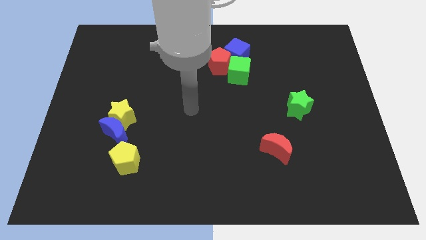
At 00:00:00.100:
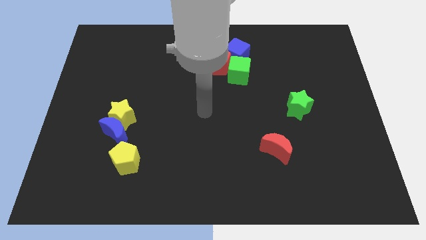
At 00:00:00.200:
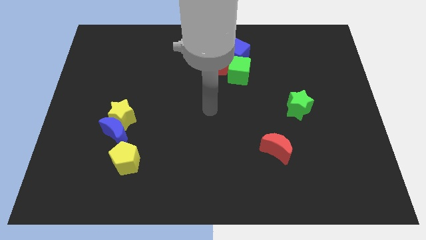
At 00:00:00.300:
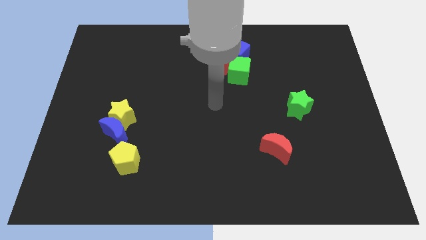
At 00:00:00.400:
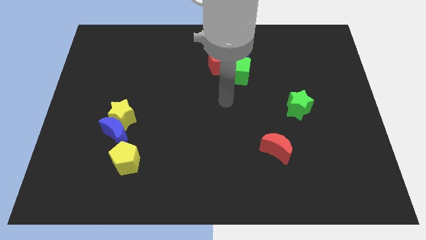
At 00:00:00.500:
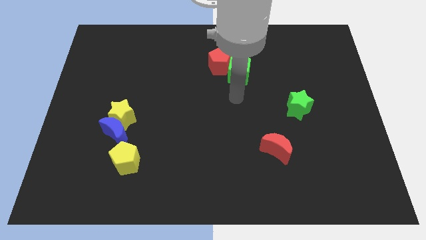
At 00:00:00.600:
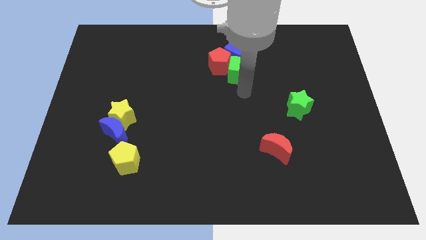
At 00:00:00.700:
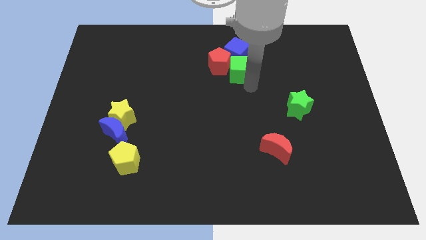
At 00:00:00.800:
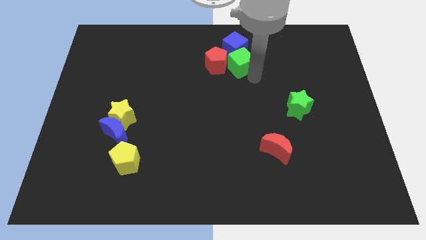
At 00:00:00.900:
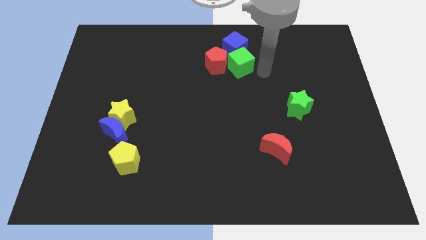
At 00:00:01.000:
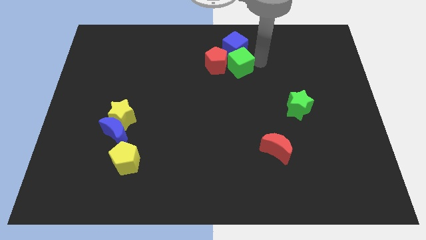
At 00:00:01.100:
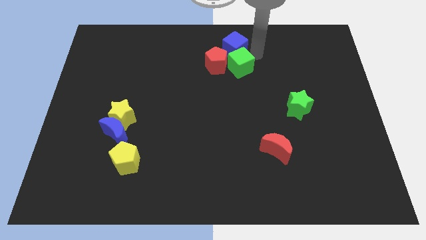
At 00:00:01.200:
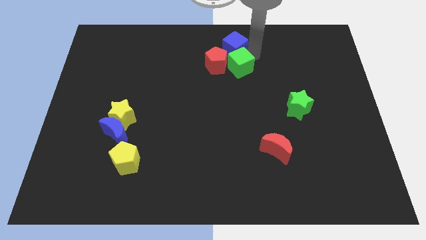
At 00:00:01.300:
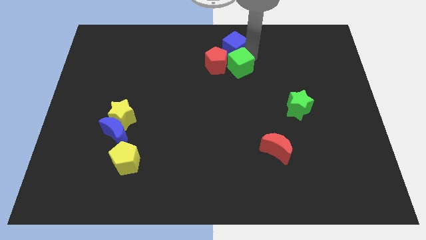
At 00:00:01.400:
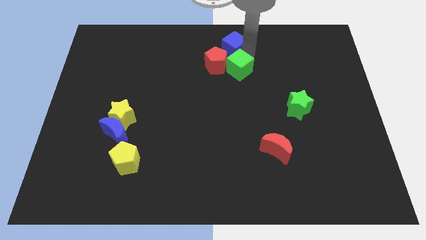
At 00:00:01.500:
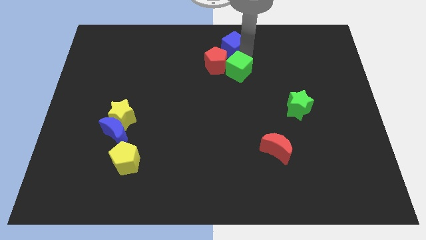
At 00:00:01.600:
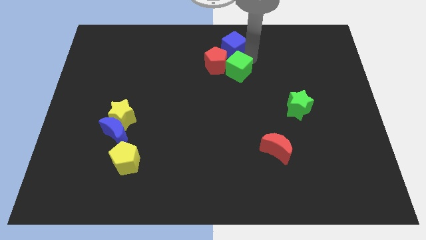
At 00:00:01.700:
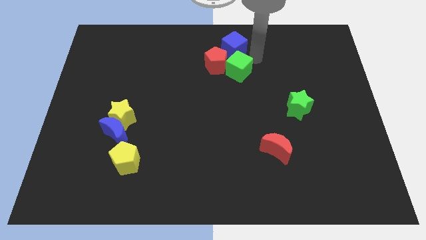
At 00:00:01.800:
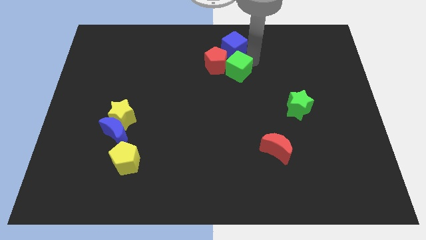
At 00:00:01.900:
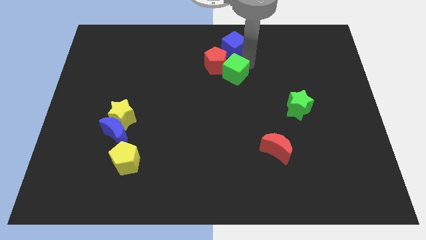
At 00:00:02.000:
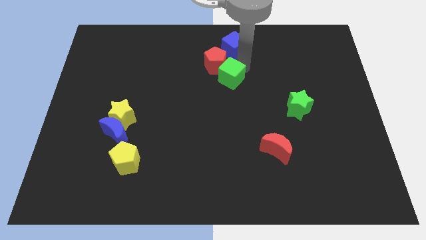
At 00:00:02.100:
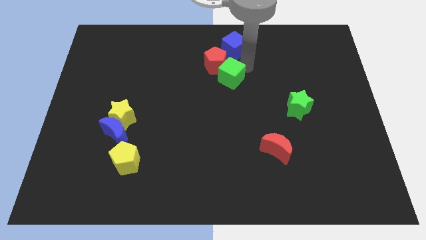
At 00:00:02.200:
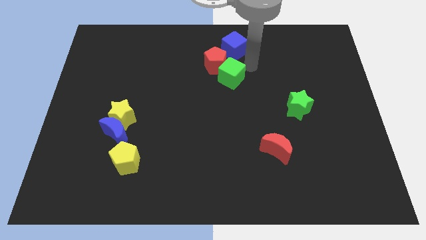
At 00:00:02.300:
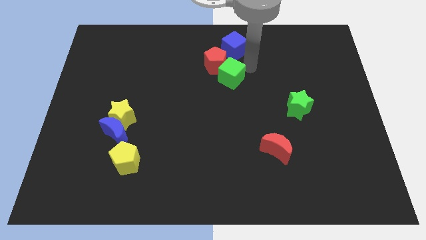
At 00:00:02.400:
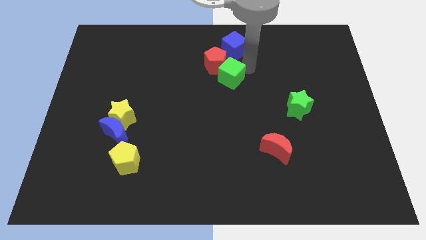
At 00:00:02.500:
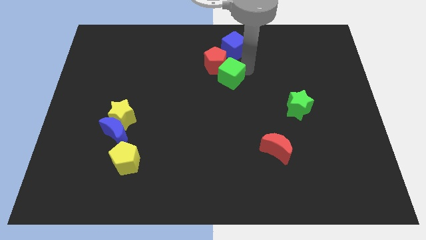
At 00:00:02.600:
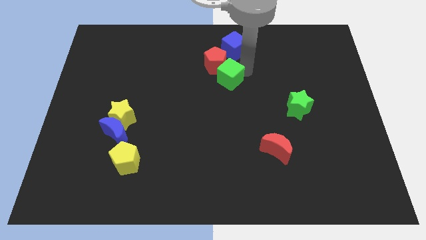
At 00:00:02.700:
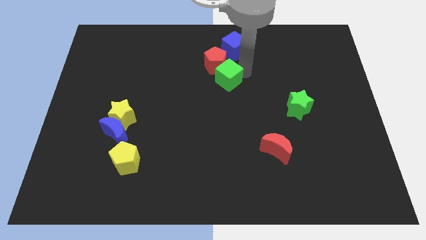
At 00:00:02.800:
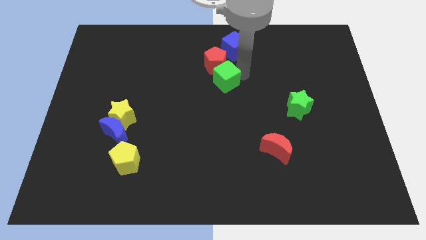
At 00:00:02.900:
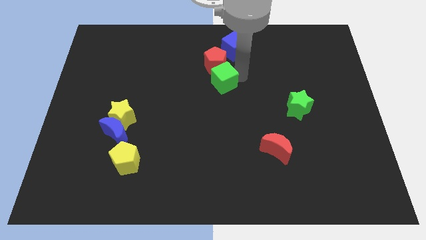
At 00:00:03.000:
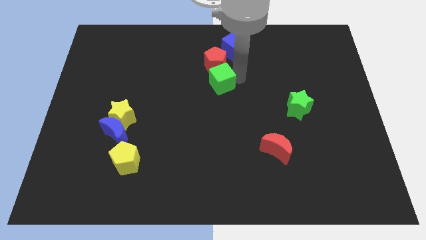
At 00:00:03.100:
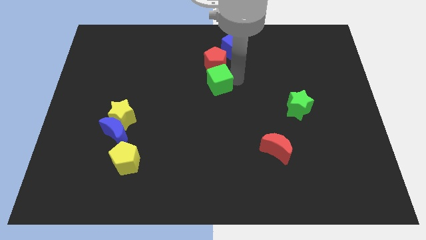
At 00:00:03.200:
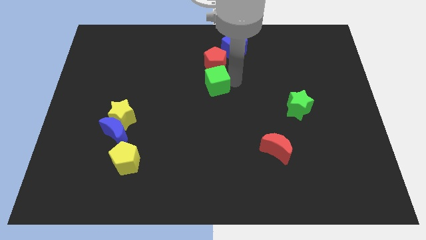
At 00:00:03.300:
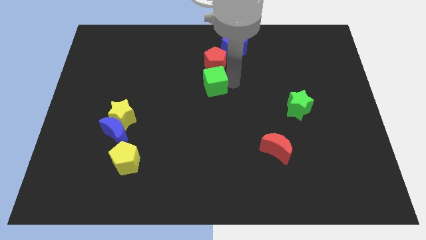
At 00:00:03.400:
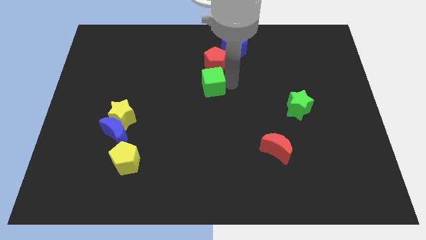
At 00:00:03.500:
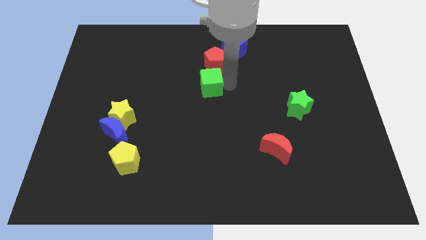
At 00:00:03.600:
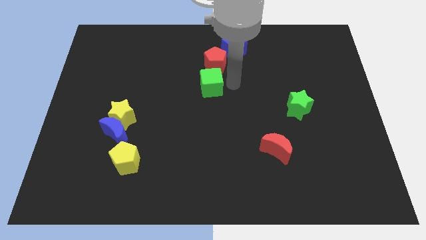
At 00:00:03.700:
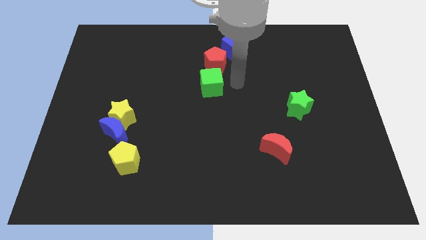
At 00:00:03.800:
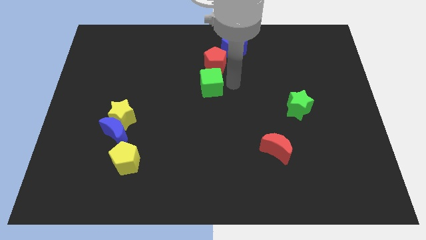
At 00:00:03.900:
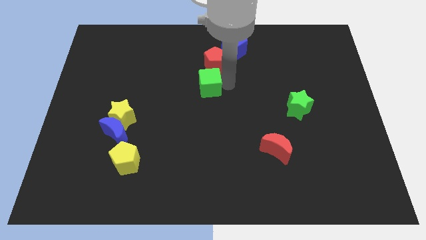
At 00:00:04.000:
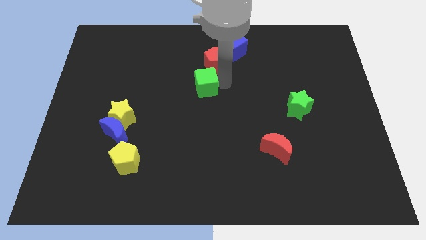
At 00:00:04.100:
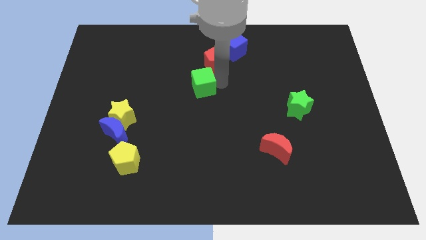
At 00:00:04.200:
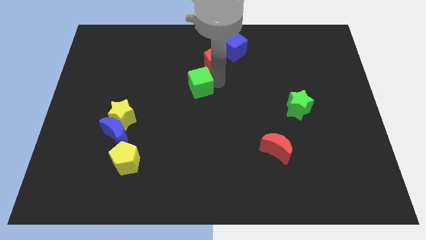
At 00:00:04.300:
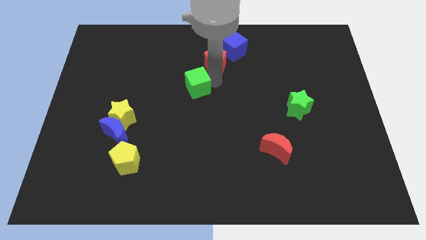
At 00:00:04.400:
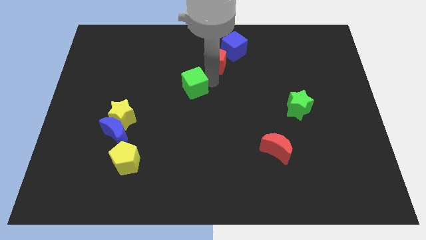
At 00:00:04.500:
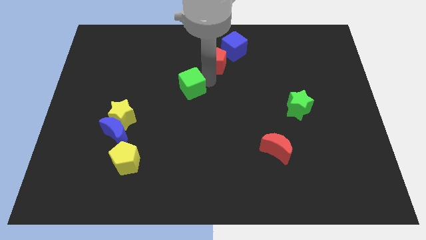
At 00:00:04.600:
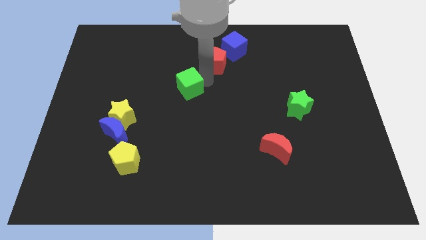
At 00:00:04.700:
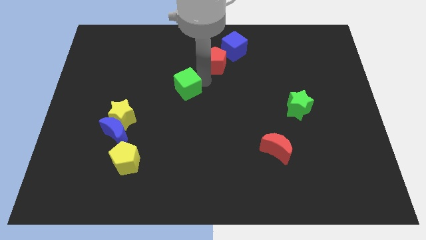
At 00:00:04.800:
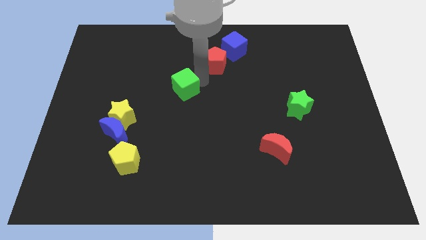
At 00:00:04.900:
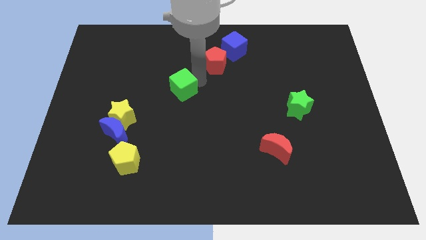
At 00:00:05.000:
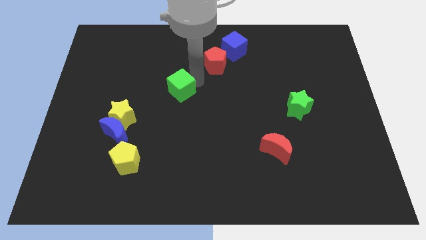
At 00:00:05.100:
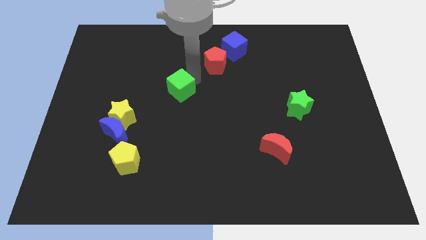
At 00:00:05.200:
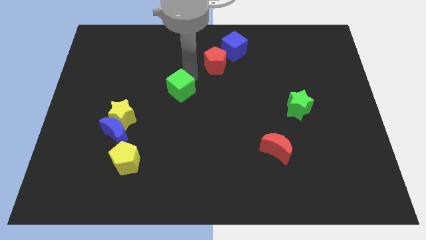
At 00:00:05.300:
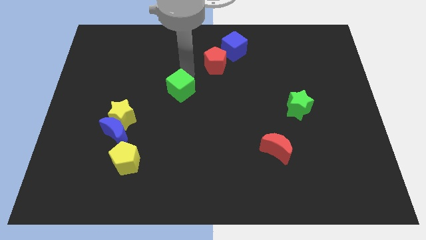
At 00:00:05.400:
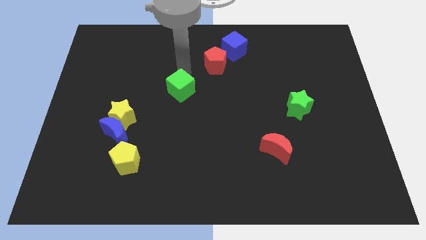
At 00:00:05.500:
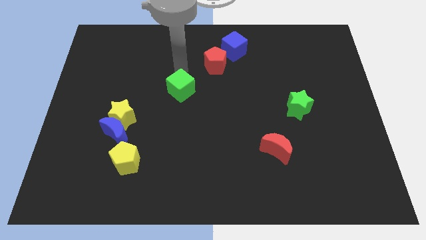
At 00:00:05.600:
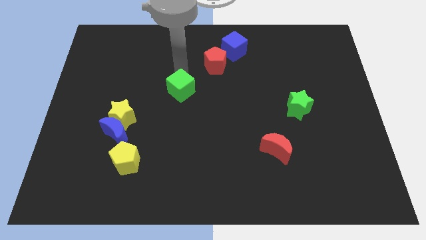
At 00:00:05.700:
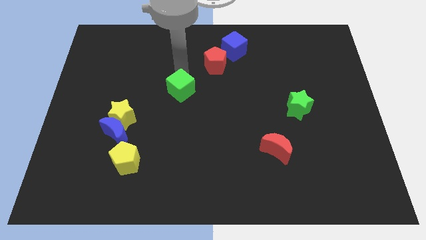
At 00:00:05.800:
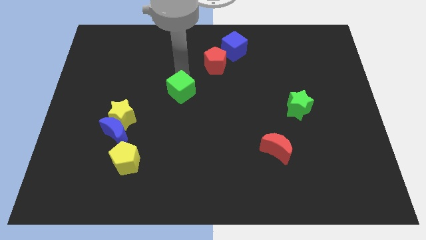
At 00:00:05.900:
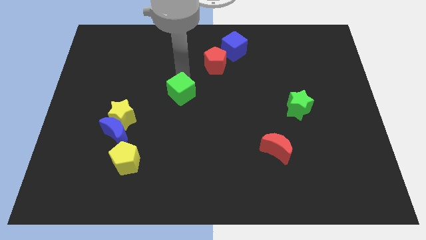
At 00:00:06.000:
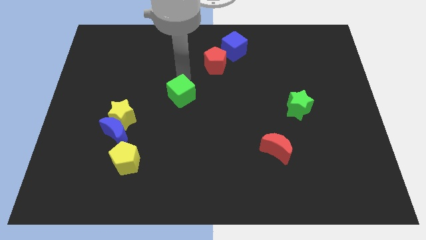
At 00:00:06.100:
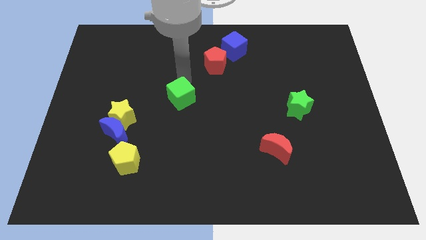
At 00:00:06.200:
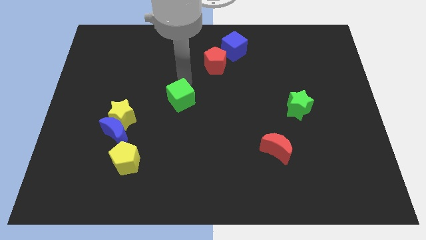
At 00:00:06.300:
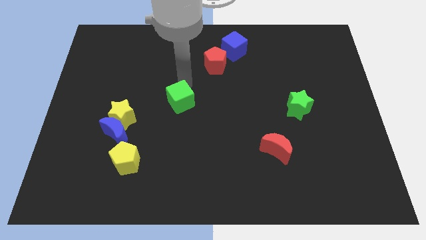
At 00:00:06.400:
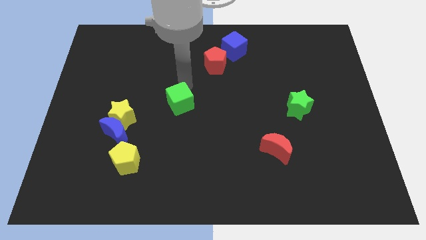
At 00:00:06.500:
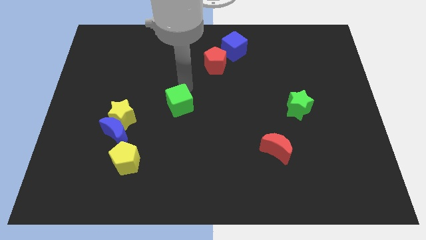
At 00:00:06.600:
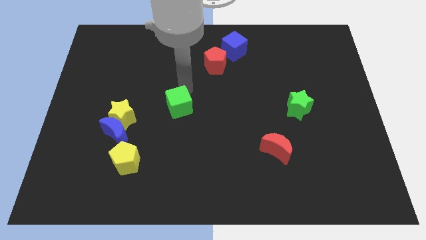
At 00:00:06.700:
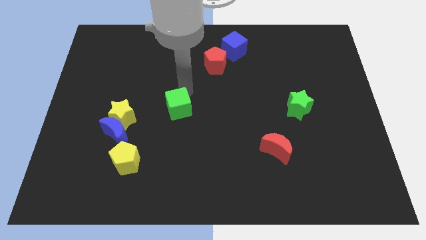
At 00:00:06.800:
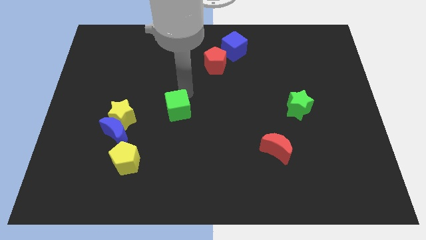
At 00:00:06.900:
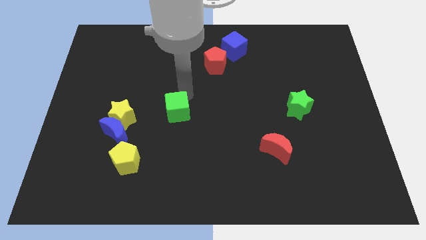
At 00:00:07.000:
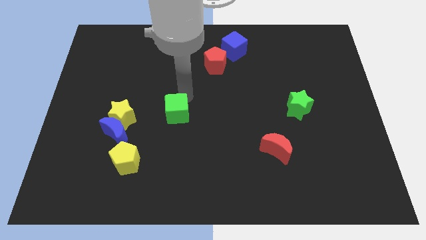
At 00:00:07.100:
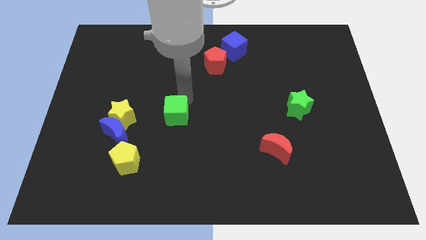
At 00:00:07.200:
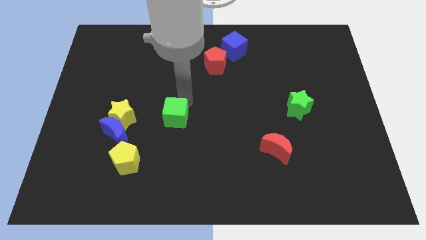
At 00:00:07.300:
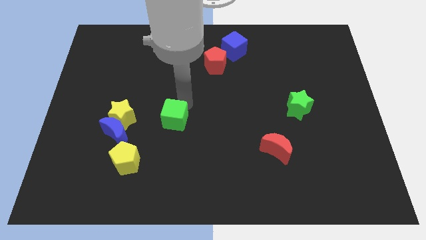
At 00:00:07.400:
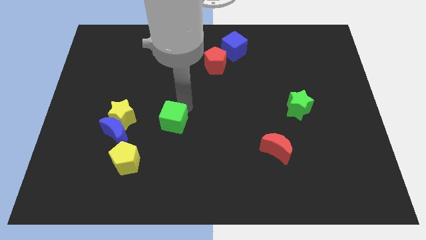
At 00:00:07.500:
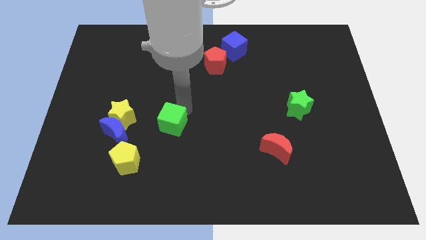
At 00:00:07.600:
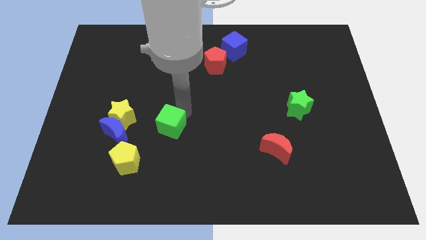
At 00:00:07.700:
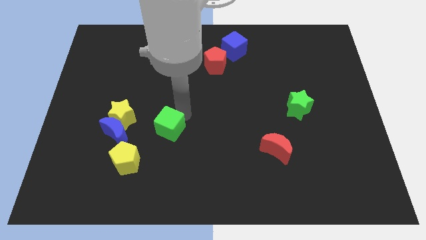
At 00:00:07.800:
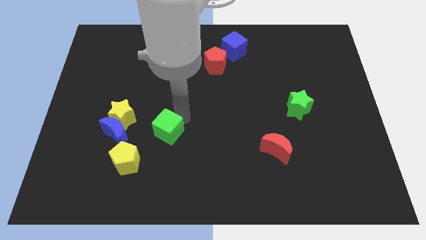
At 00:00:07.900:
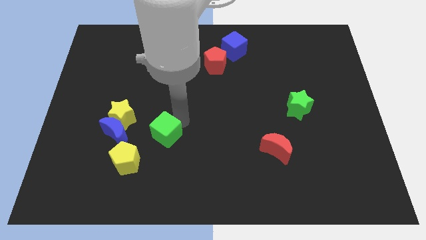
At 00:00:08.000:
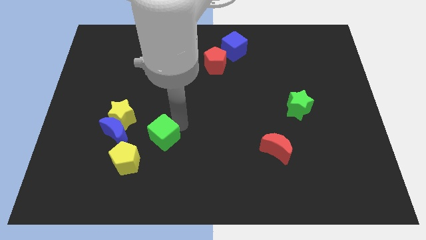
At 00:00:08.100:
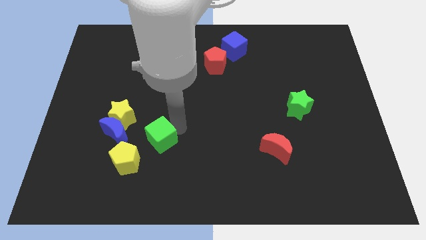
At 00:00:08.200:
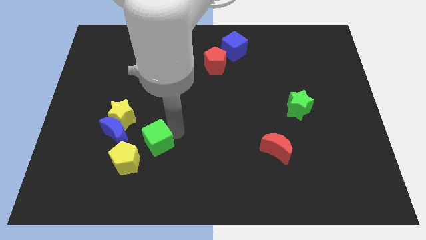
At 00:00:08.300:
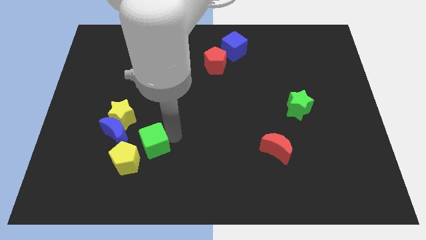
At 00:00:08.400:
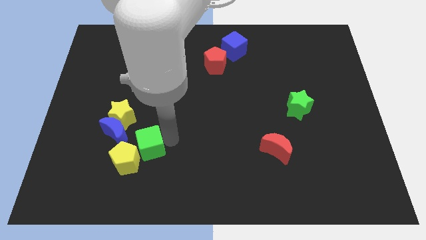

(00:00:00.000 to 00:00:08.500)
slide the green cube above the yellow pentagon
